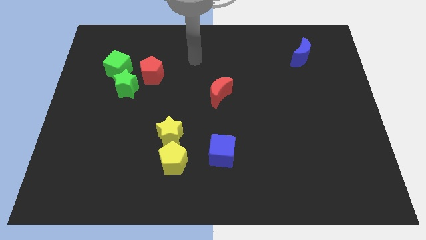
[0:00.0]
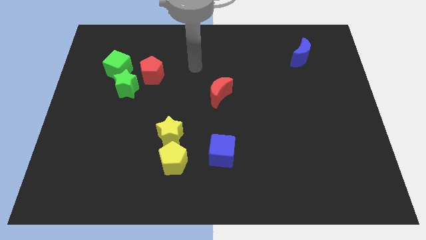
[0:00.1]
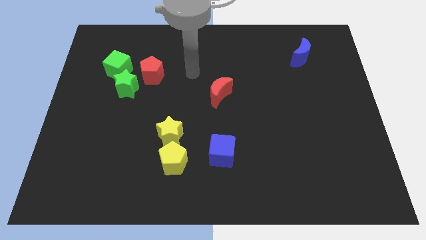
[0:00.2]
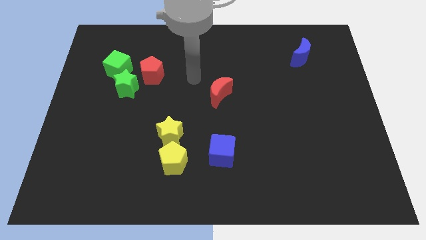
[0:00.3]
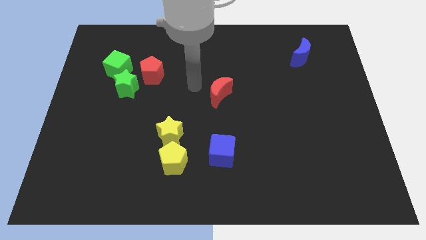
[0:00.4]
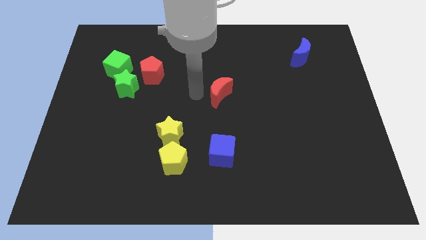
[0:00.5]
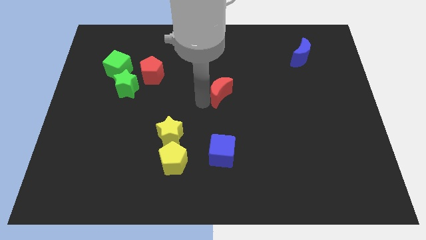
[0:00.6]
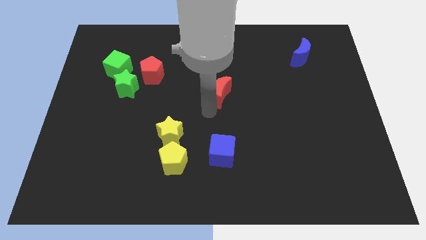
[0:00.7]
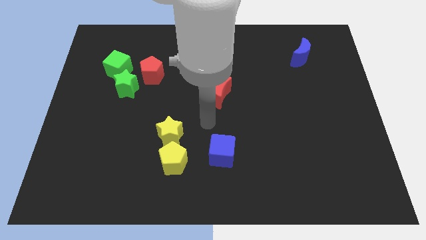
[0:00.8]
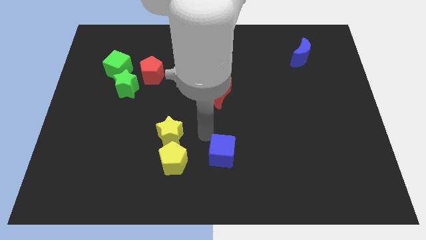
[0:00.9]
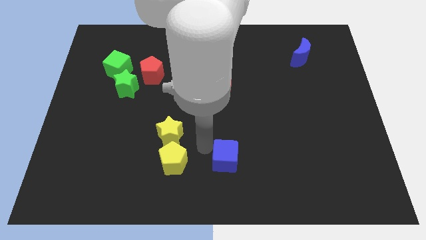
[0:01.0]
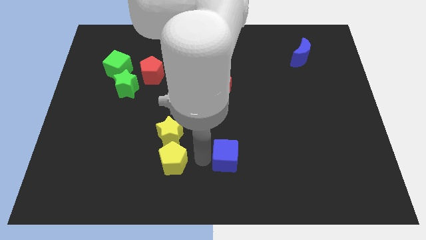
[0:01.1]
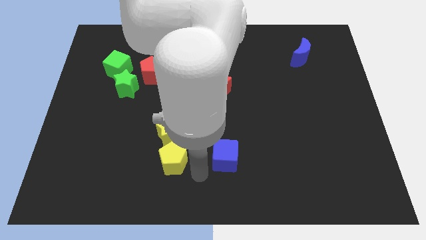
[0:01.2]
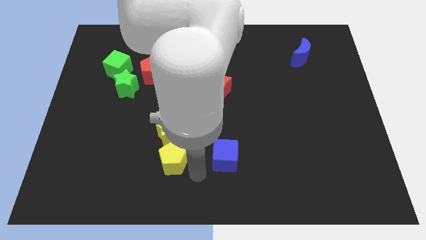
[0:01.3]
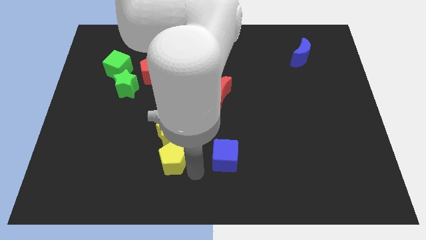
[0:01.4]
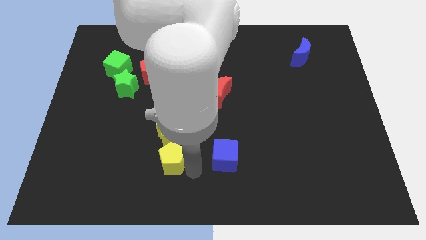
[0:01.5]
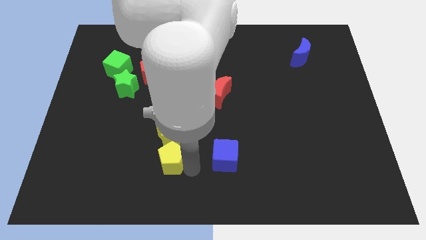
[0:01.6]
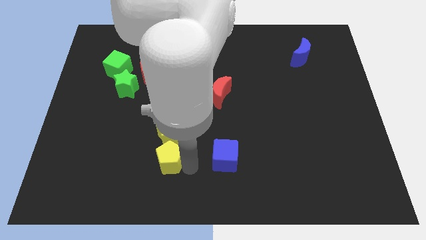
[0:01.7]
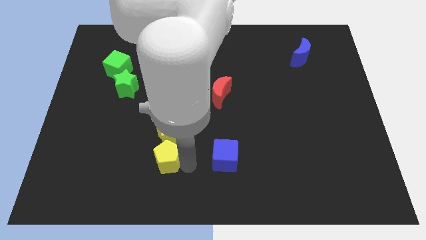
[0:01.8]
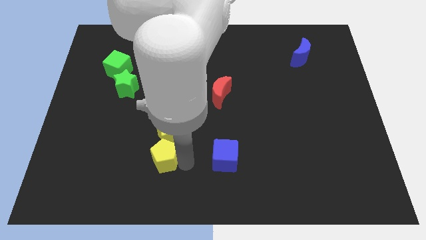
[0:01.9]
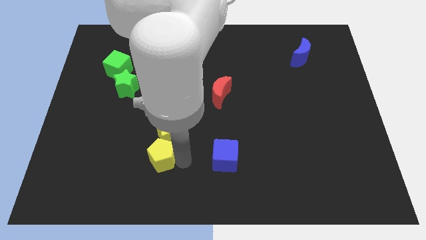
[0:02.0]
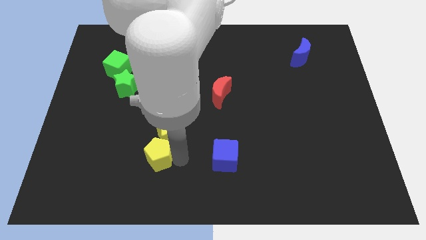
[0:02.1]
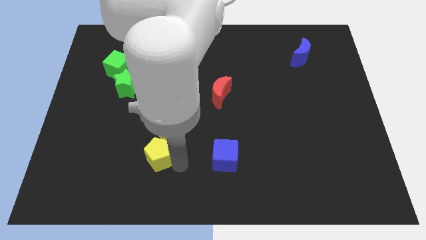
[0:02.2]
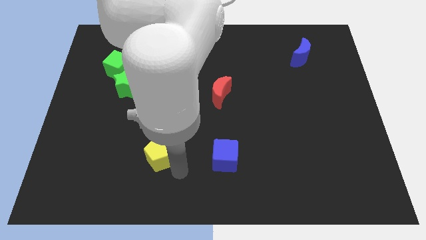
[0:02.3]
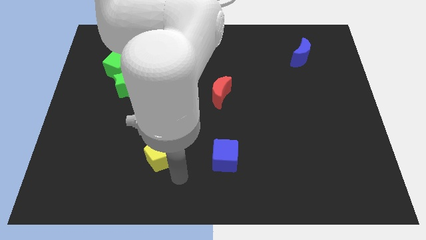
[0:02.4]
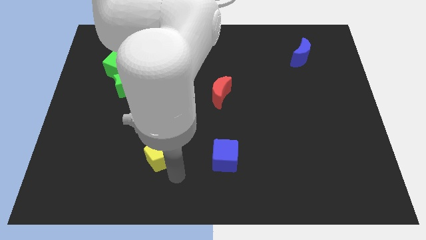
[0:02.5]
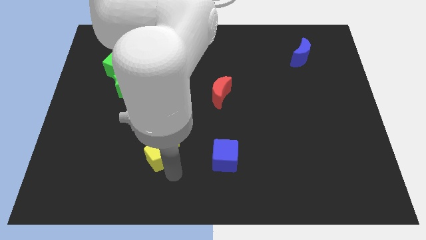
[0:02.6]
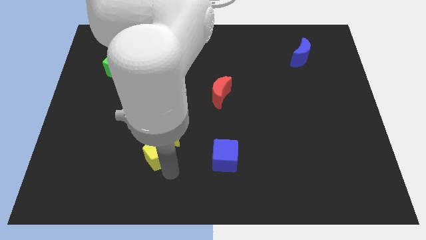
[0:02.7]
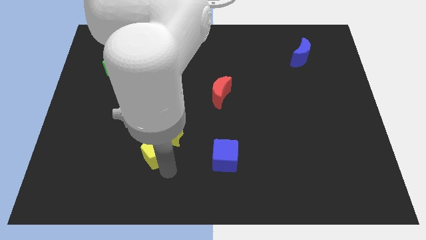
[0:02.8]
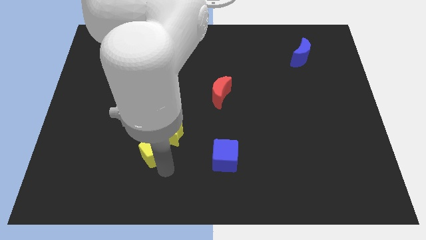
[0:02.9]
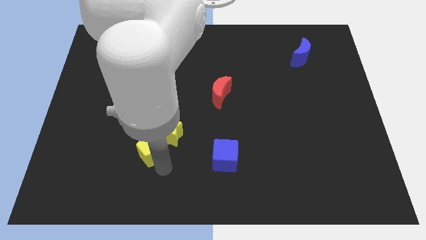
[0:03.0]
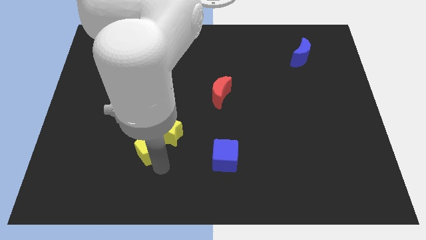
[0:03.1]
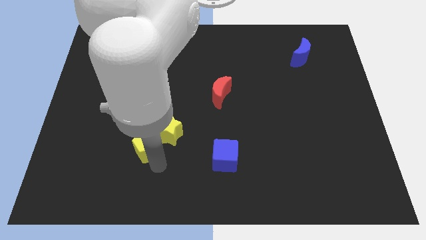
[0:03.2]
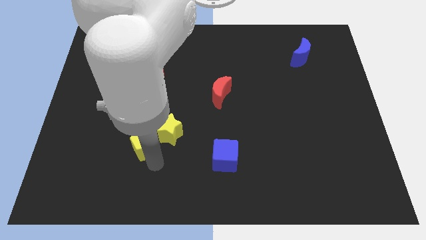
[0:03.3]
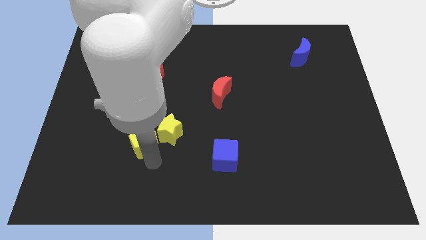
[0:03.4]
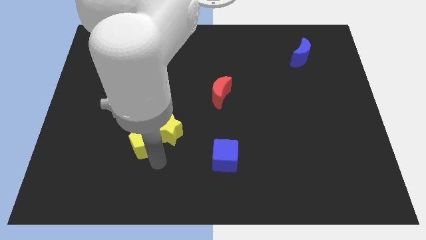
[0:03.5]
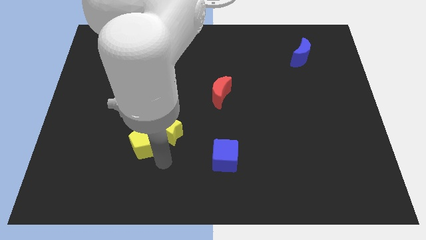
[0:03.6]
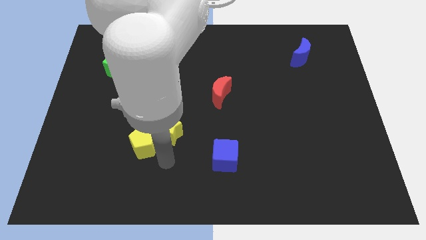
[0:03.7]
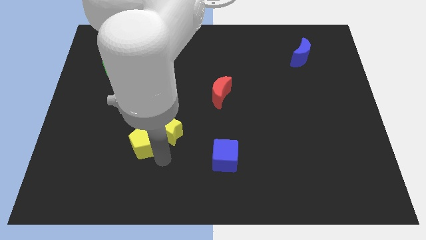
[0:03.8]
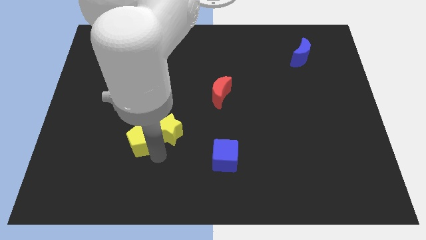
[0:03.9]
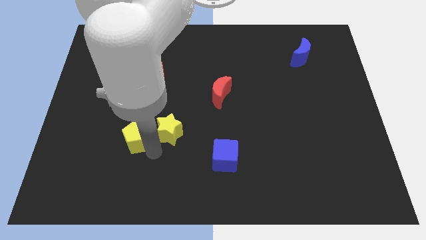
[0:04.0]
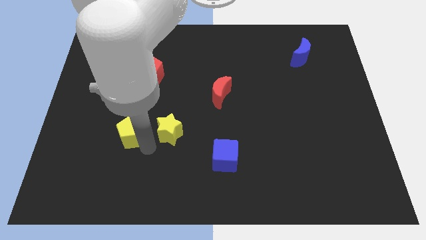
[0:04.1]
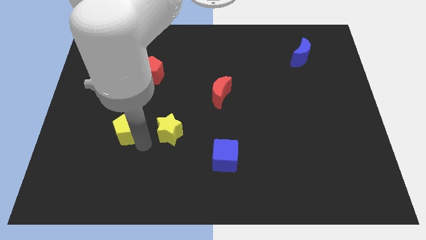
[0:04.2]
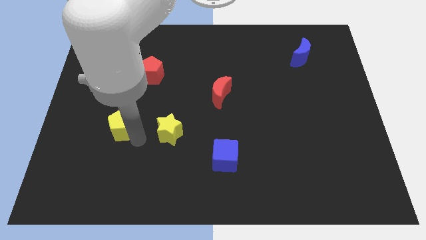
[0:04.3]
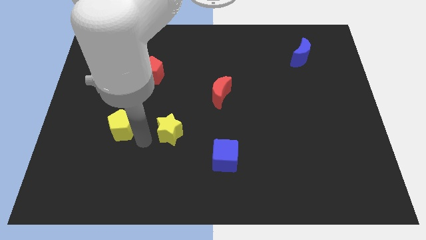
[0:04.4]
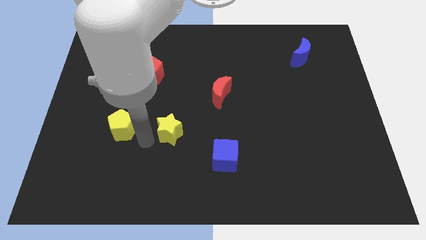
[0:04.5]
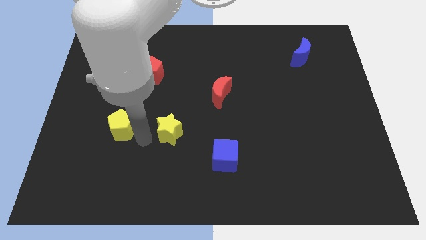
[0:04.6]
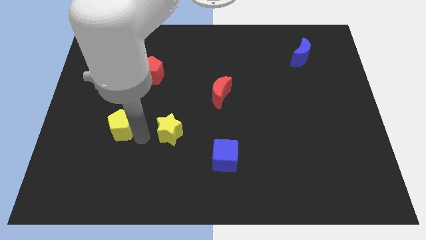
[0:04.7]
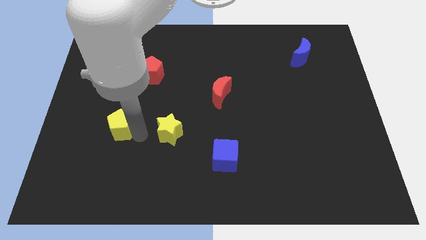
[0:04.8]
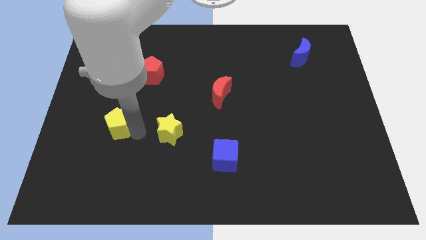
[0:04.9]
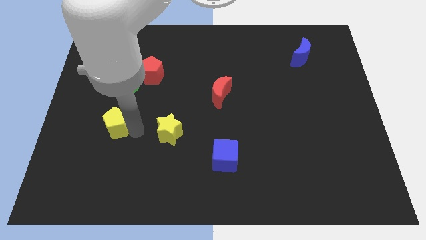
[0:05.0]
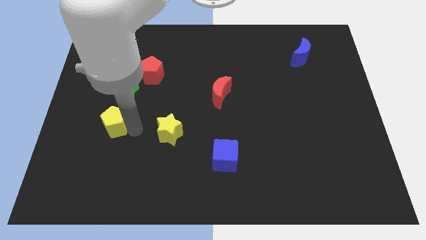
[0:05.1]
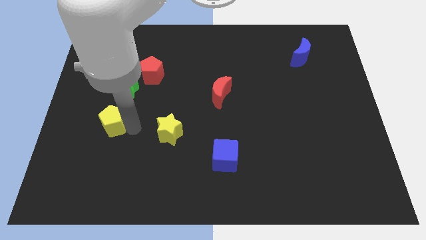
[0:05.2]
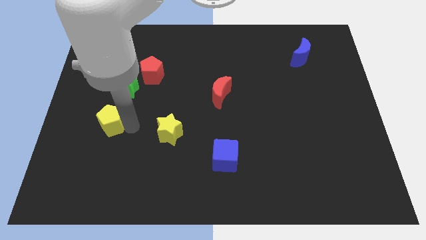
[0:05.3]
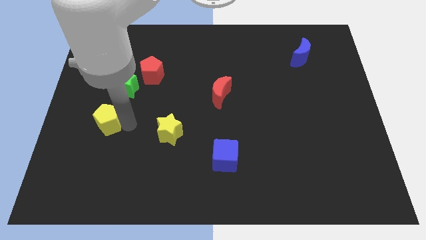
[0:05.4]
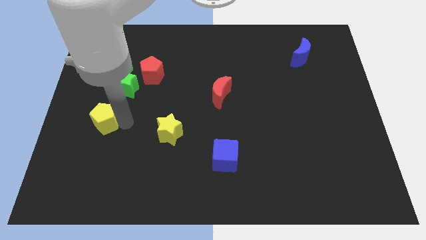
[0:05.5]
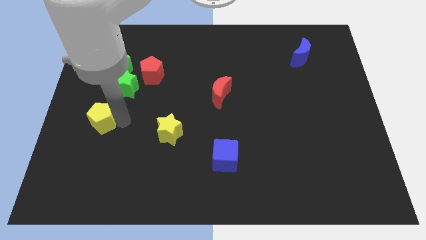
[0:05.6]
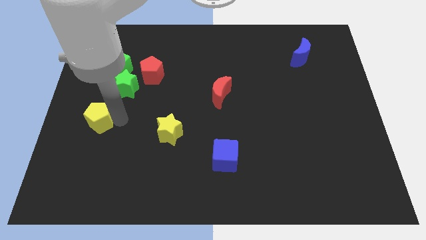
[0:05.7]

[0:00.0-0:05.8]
slide the yellow pentagon to the left side of the board
